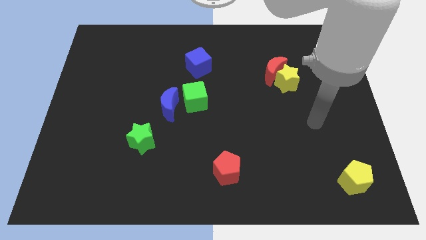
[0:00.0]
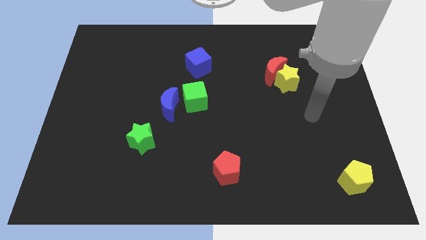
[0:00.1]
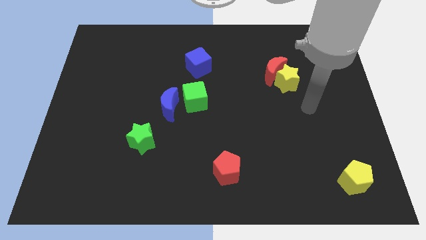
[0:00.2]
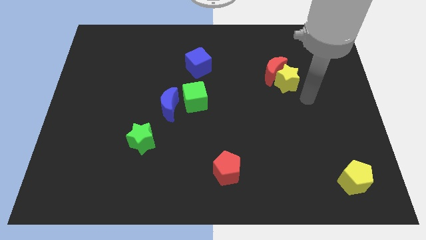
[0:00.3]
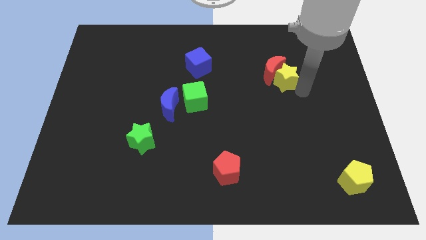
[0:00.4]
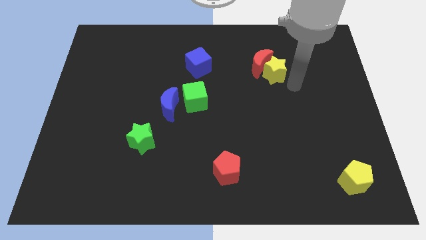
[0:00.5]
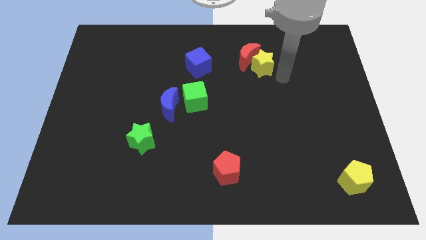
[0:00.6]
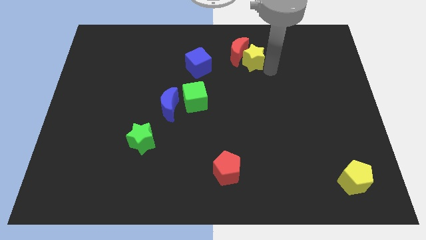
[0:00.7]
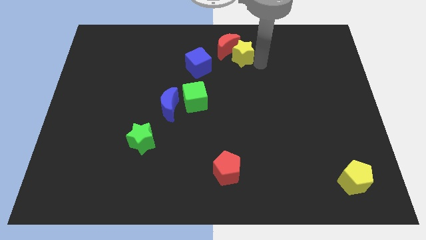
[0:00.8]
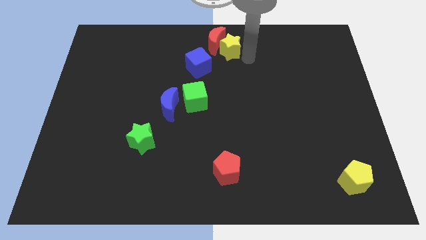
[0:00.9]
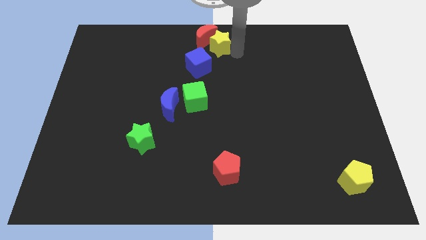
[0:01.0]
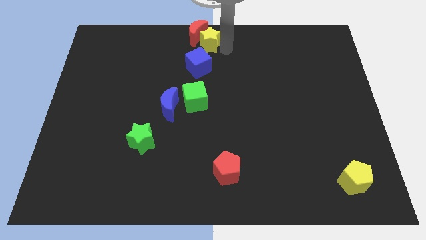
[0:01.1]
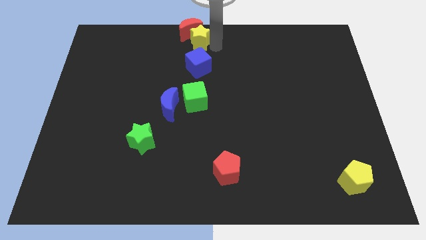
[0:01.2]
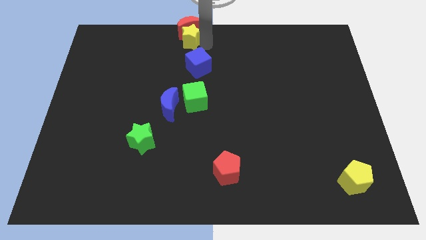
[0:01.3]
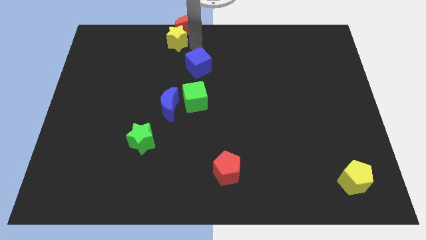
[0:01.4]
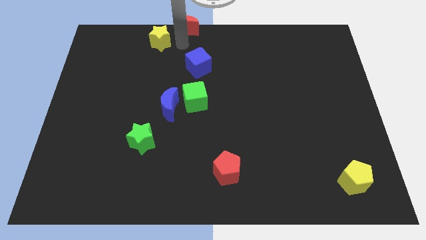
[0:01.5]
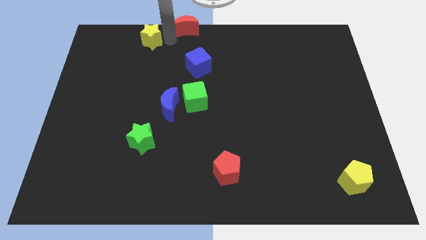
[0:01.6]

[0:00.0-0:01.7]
pull the red moon apart from the yellow star

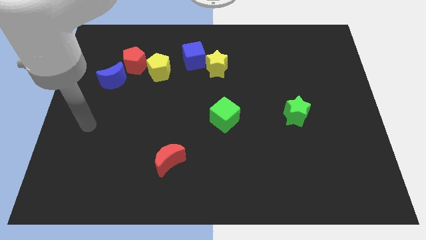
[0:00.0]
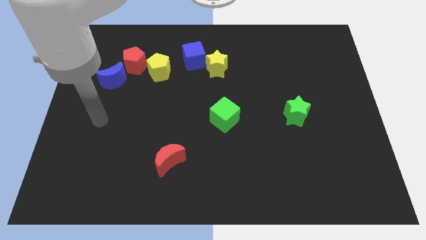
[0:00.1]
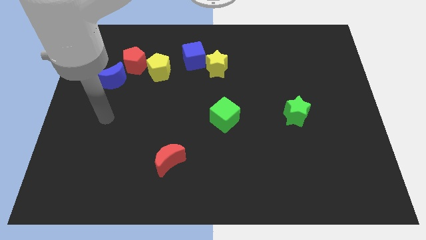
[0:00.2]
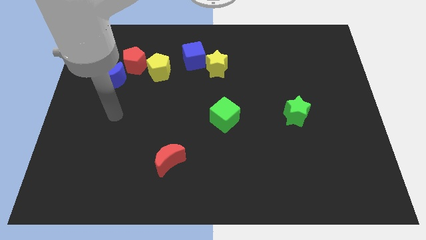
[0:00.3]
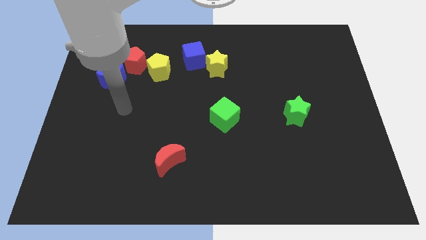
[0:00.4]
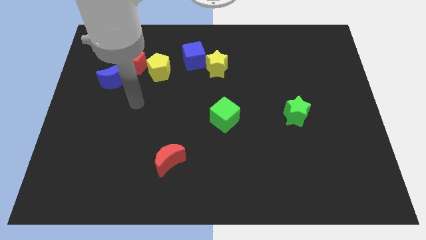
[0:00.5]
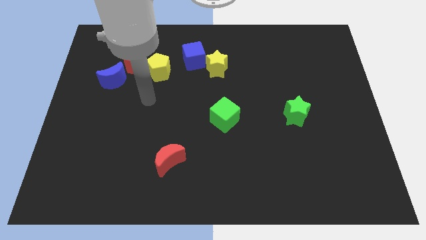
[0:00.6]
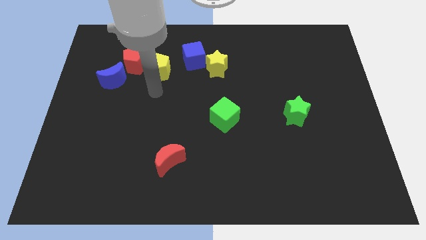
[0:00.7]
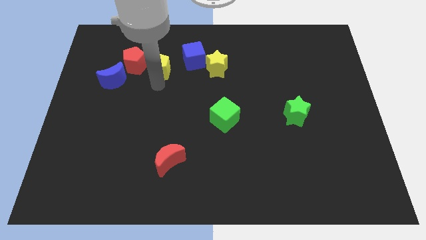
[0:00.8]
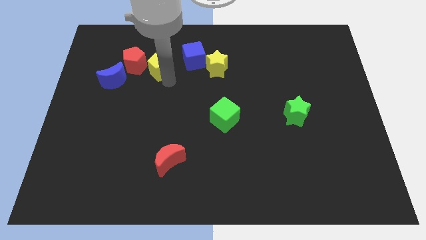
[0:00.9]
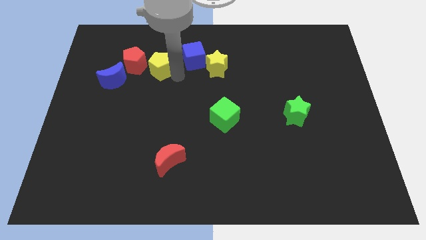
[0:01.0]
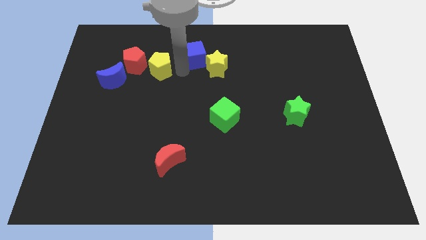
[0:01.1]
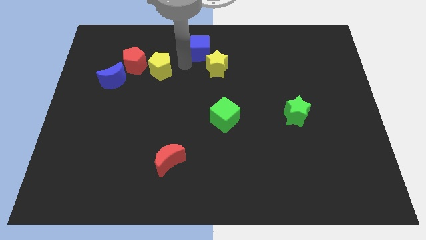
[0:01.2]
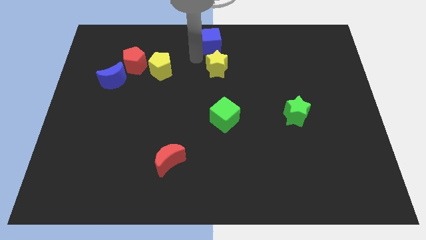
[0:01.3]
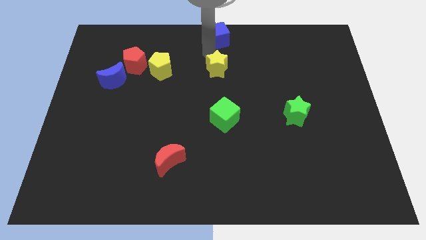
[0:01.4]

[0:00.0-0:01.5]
move the yellow star away from the blue cube

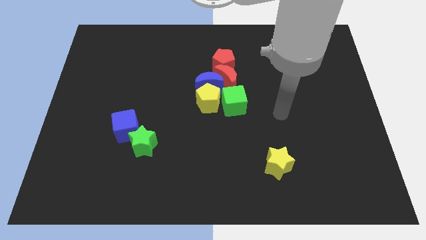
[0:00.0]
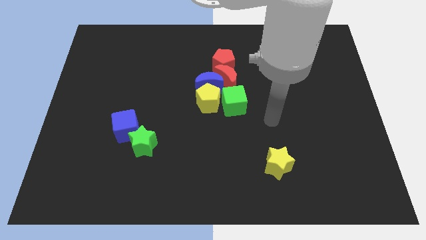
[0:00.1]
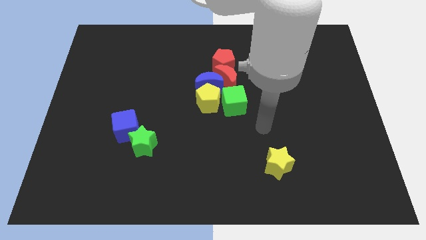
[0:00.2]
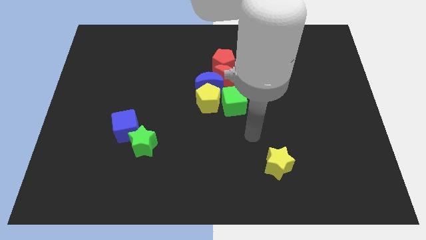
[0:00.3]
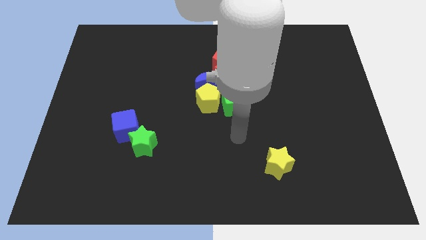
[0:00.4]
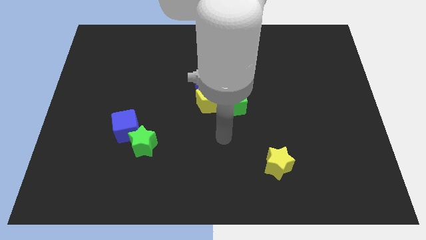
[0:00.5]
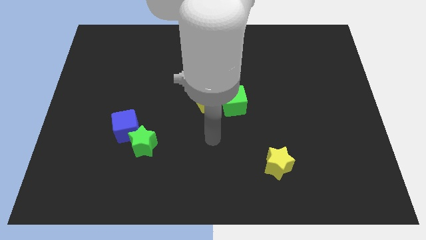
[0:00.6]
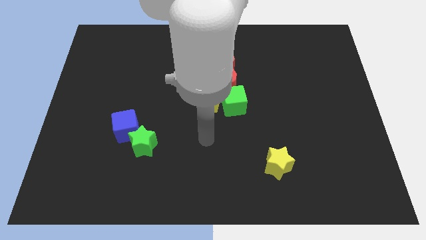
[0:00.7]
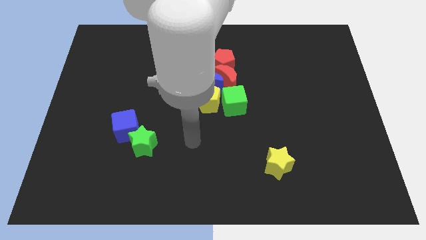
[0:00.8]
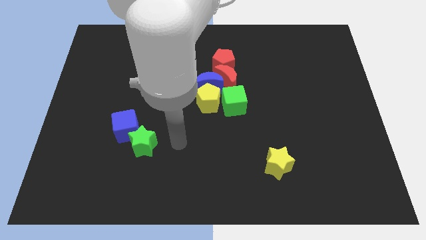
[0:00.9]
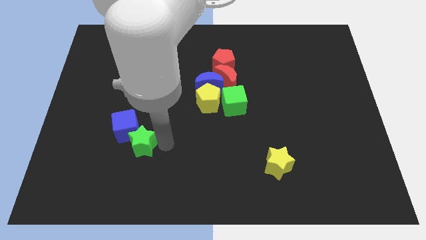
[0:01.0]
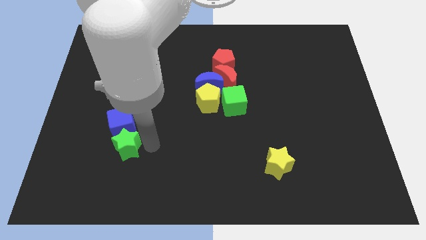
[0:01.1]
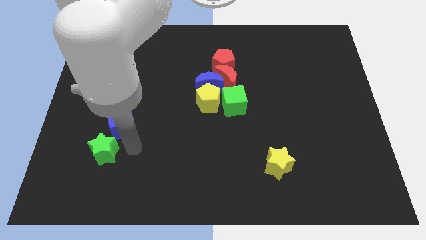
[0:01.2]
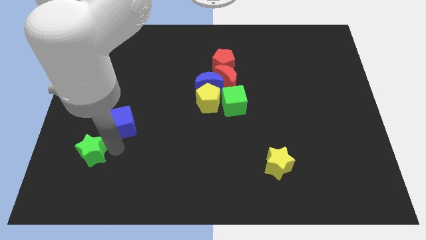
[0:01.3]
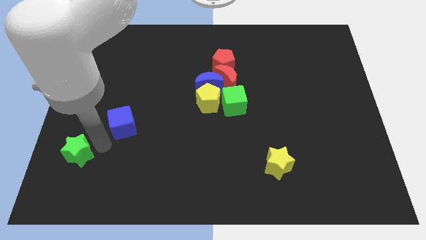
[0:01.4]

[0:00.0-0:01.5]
move the blue cube away from the green star

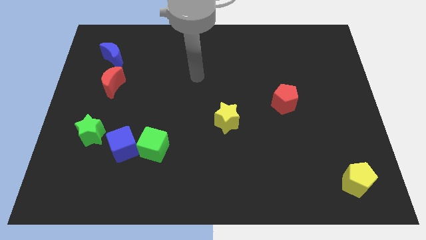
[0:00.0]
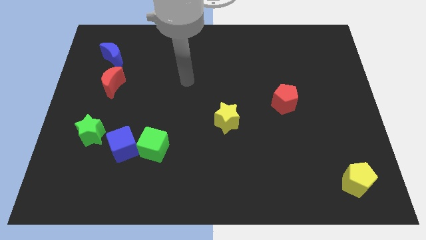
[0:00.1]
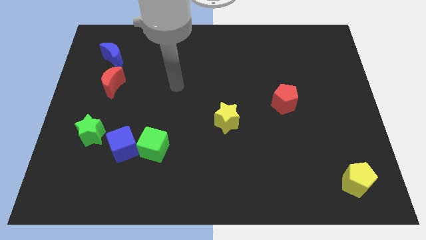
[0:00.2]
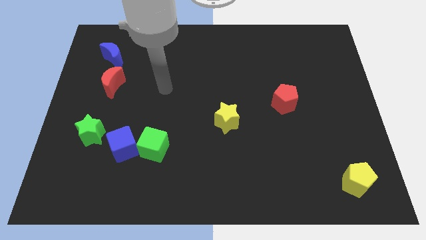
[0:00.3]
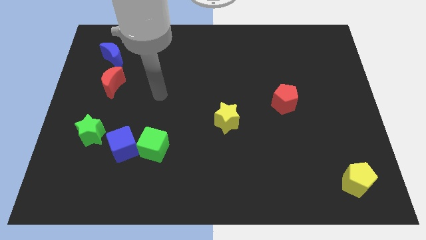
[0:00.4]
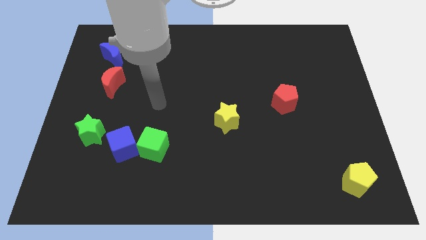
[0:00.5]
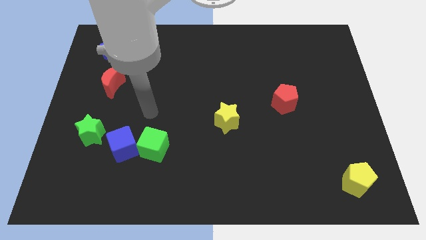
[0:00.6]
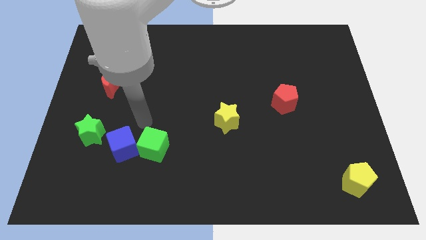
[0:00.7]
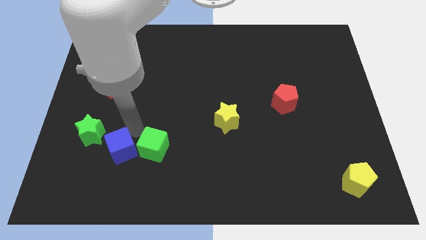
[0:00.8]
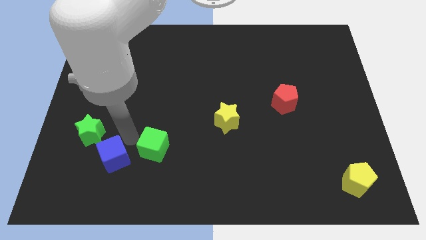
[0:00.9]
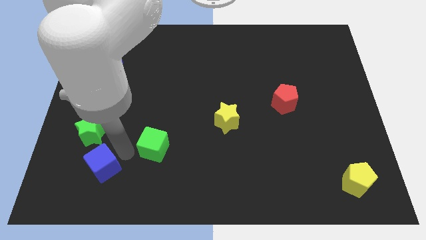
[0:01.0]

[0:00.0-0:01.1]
separate the green cube from the blue cube

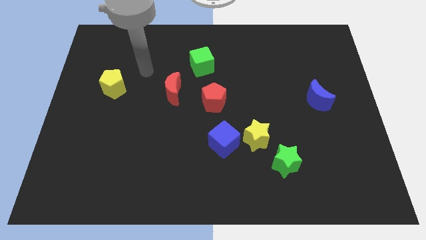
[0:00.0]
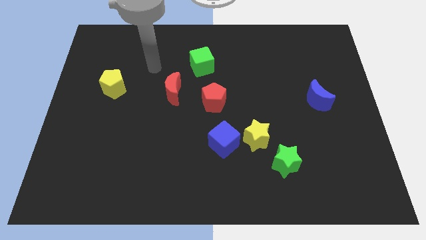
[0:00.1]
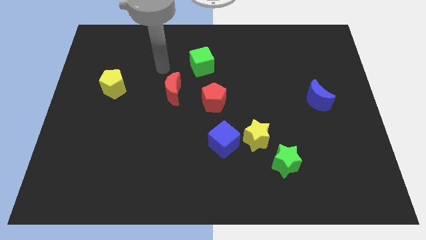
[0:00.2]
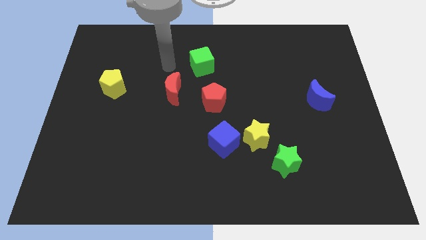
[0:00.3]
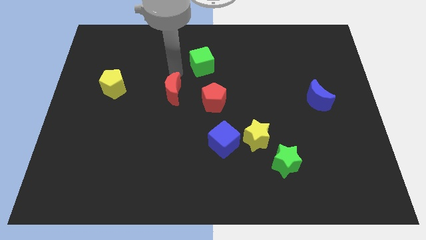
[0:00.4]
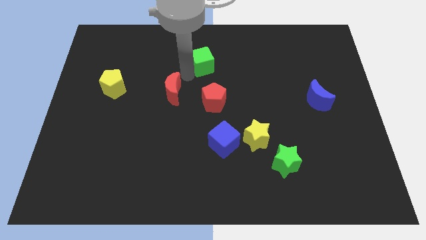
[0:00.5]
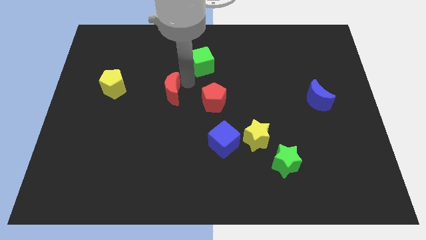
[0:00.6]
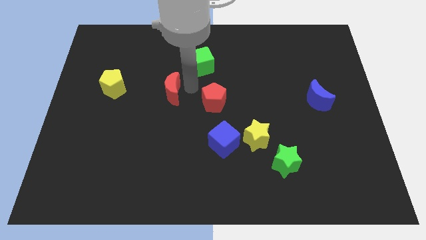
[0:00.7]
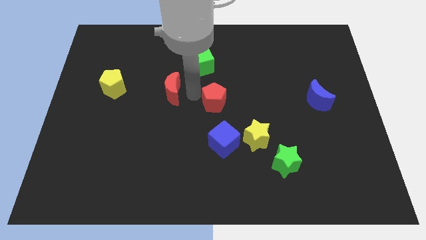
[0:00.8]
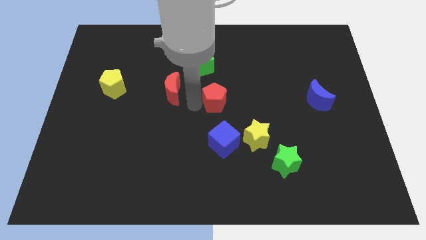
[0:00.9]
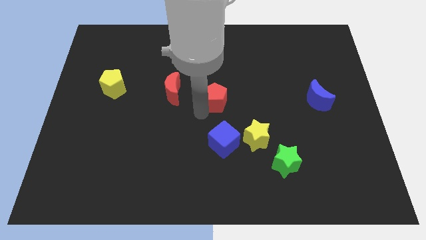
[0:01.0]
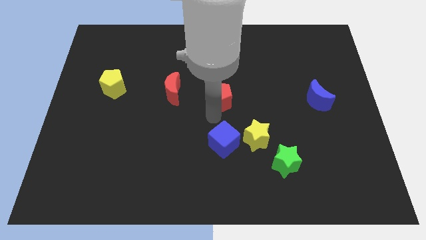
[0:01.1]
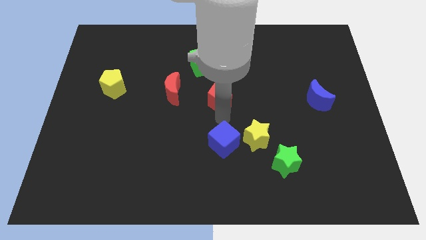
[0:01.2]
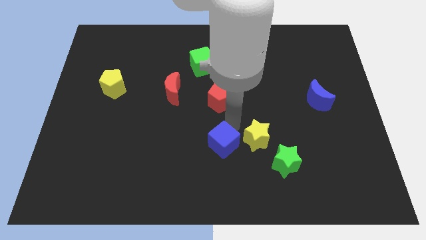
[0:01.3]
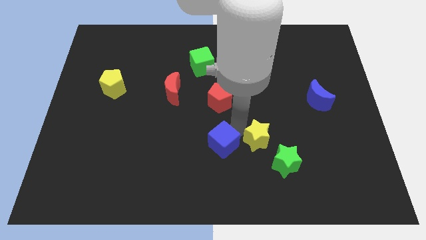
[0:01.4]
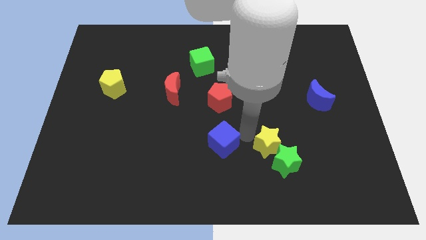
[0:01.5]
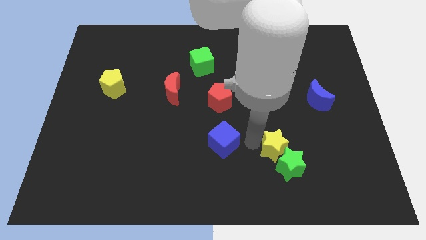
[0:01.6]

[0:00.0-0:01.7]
pull the blue cube apart from the yellow star

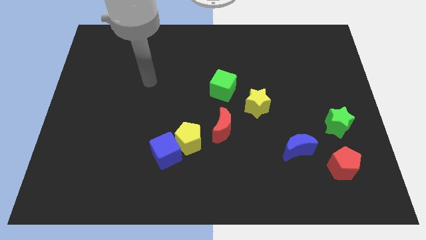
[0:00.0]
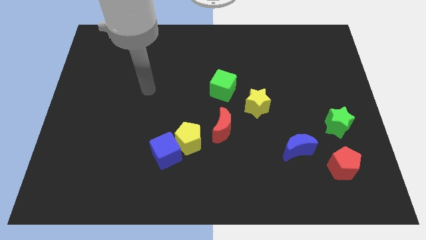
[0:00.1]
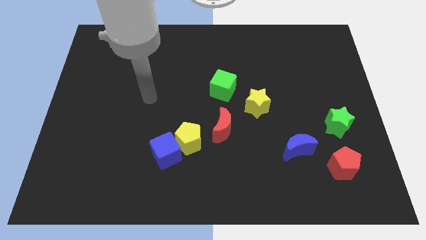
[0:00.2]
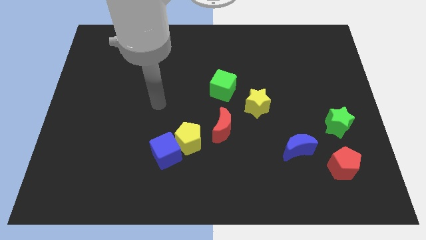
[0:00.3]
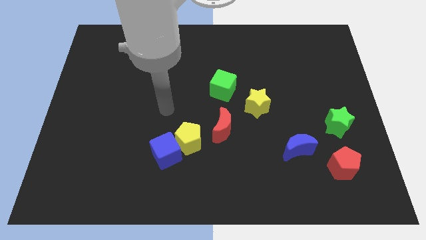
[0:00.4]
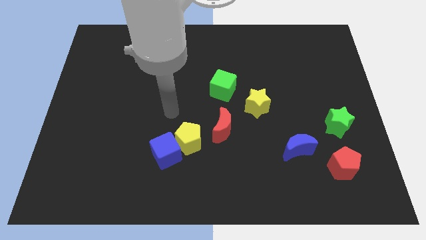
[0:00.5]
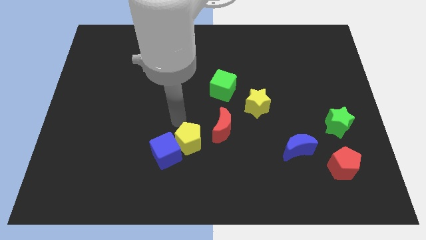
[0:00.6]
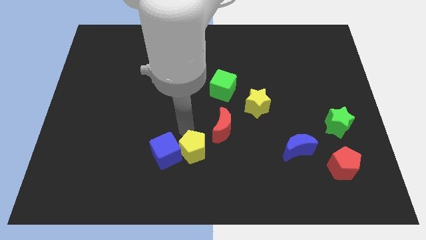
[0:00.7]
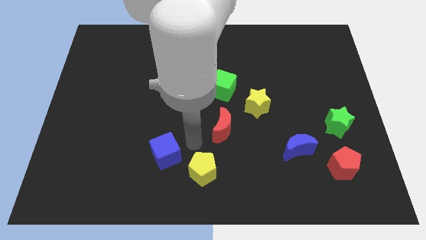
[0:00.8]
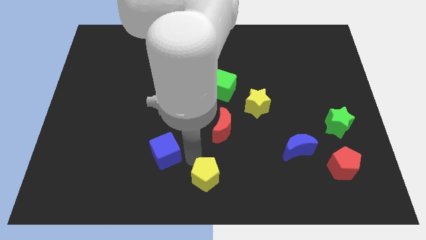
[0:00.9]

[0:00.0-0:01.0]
separate the blue cube from the yellow pentagon

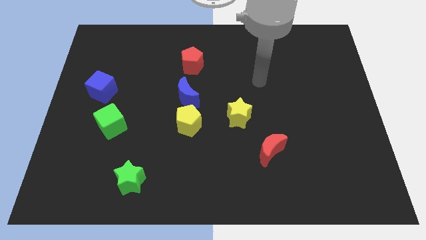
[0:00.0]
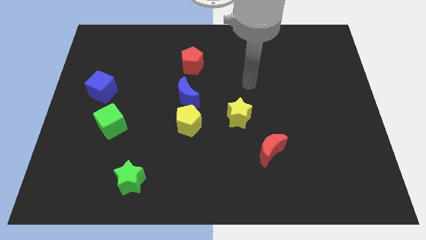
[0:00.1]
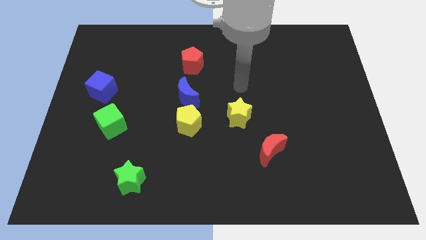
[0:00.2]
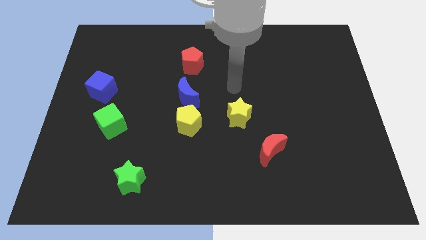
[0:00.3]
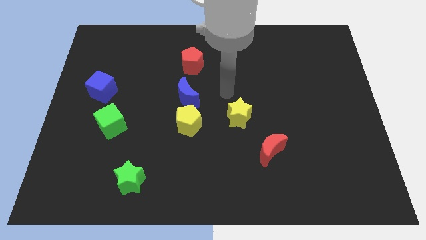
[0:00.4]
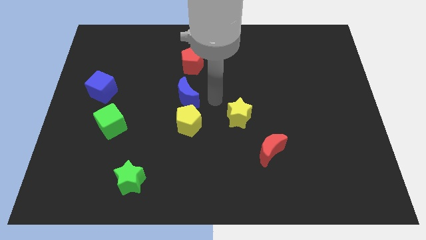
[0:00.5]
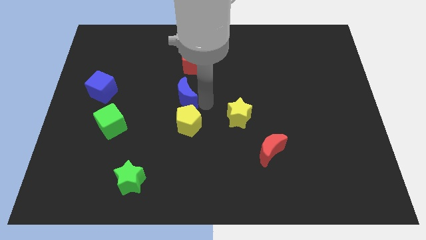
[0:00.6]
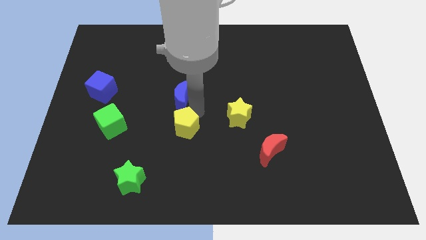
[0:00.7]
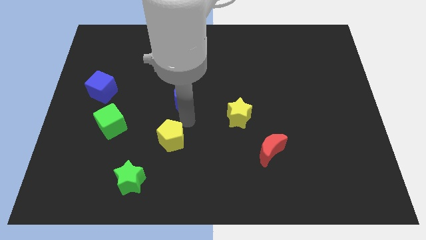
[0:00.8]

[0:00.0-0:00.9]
move the blue moon away from the yellow pentagon
